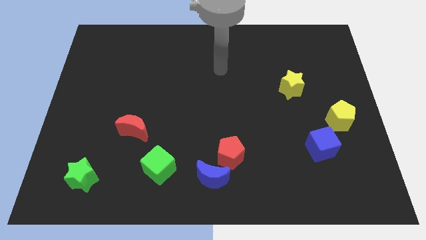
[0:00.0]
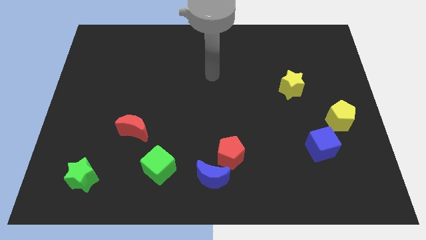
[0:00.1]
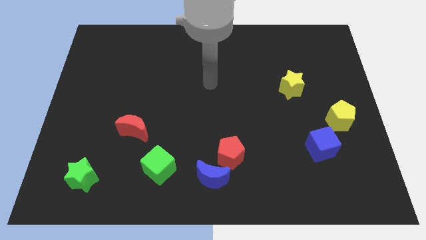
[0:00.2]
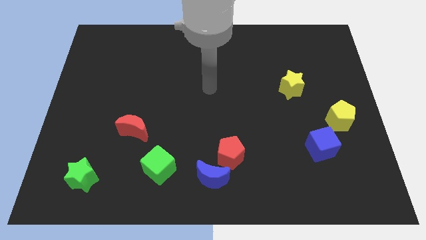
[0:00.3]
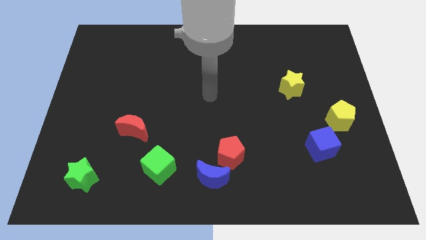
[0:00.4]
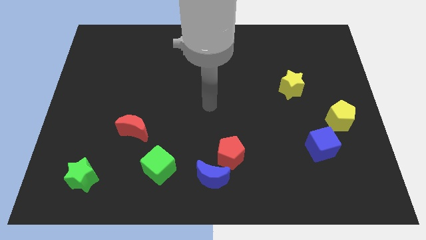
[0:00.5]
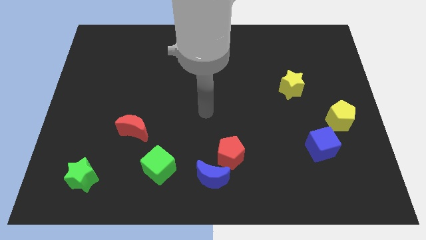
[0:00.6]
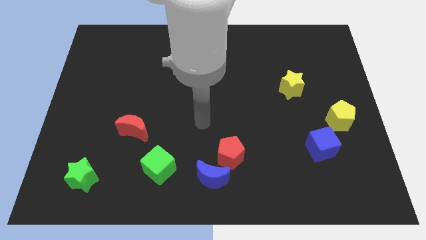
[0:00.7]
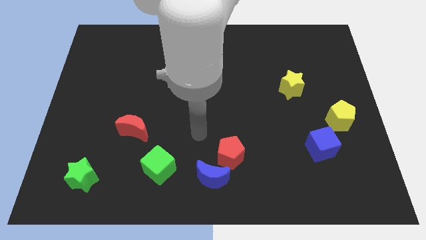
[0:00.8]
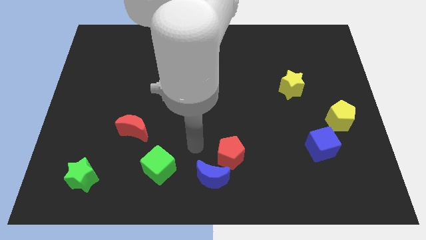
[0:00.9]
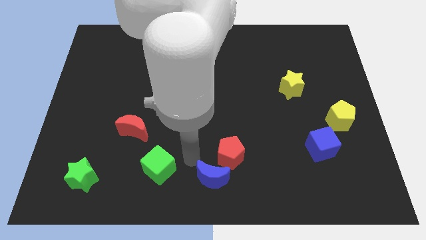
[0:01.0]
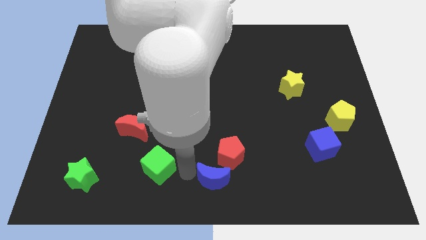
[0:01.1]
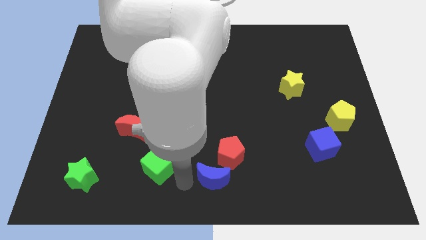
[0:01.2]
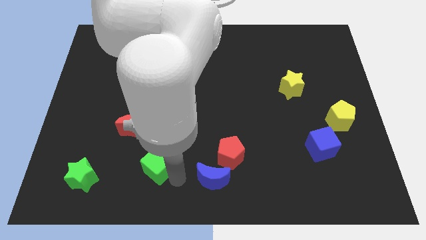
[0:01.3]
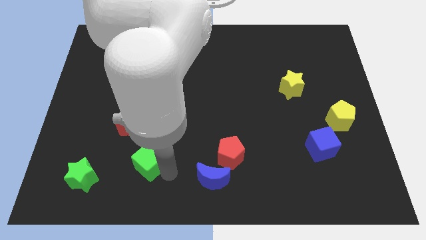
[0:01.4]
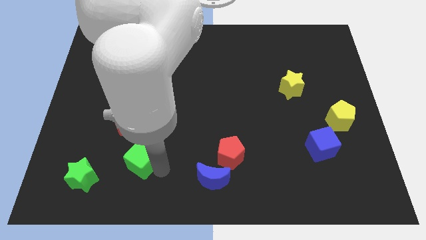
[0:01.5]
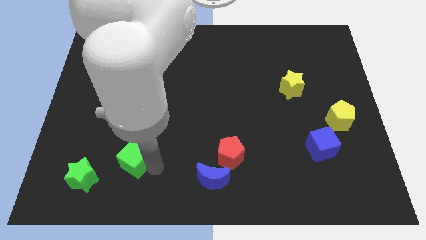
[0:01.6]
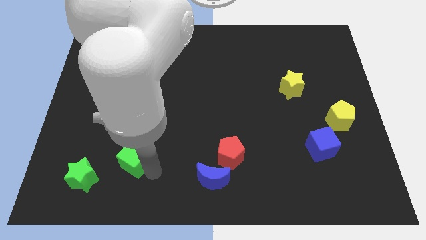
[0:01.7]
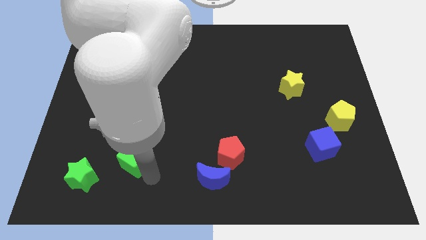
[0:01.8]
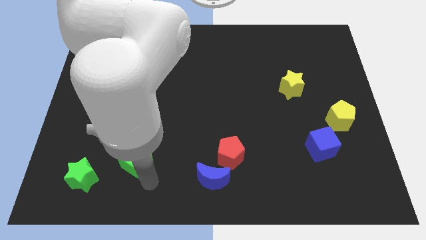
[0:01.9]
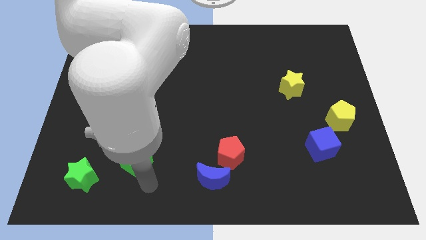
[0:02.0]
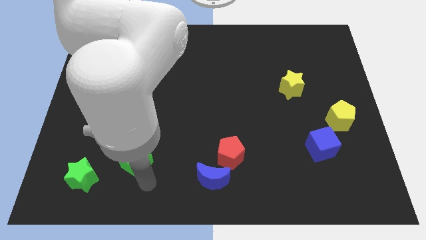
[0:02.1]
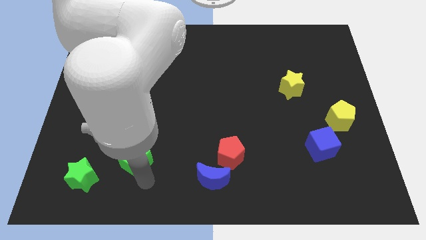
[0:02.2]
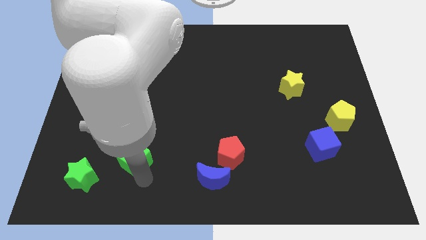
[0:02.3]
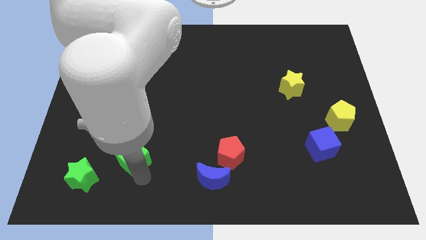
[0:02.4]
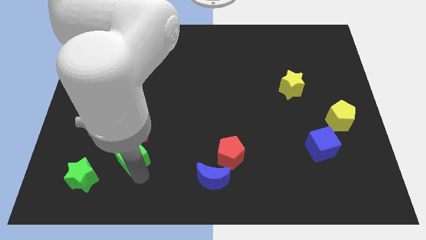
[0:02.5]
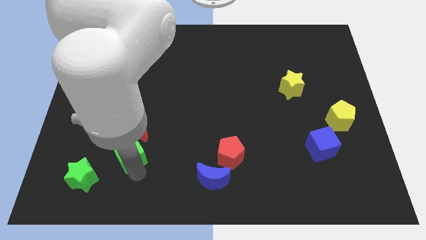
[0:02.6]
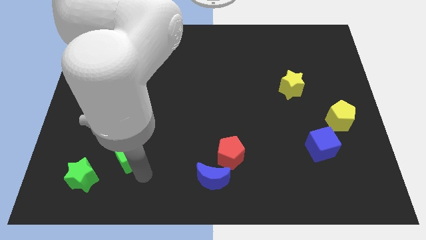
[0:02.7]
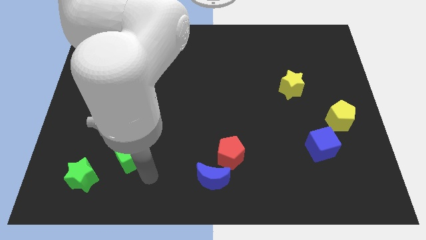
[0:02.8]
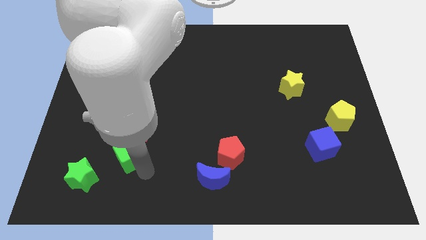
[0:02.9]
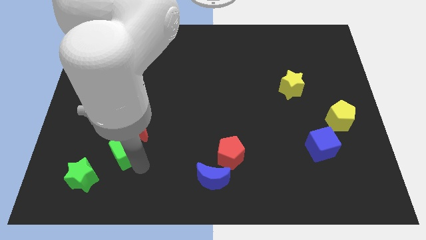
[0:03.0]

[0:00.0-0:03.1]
move the green cube up and left slightly

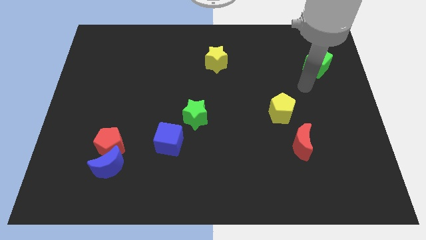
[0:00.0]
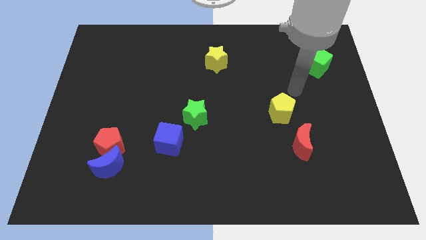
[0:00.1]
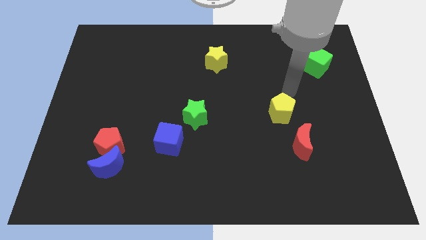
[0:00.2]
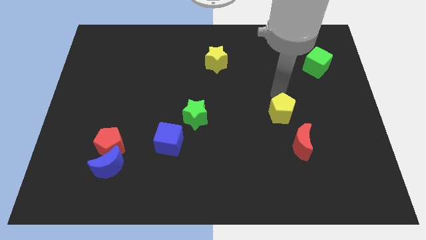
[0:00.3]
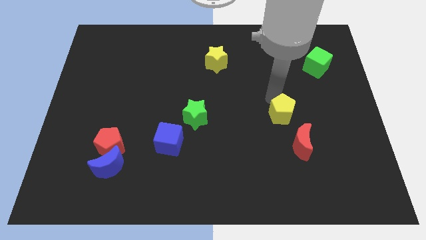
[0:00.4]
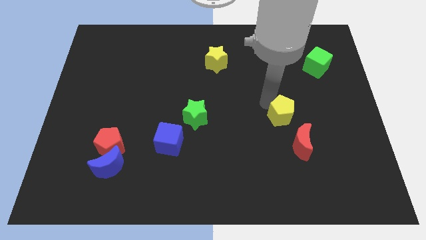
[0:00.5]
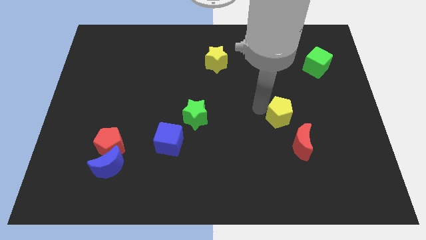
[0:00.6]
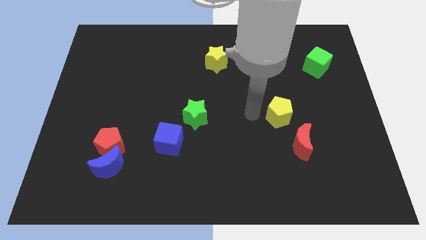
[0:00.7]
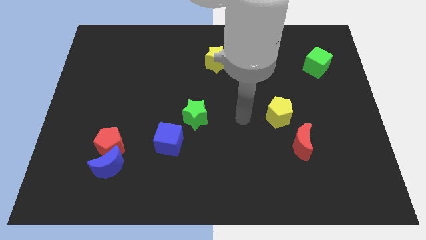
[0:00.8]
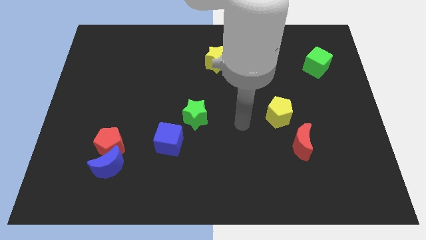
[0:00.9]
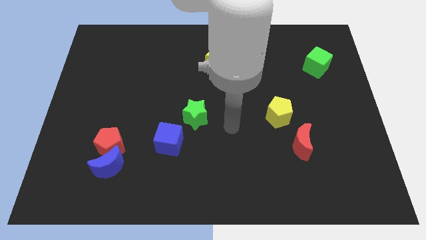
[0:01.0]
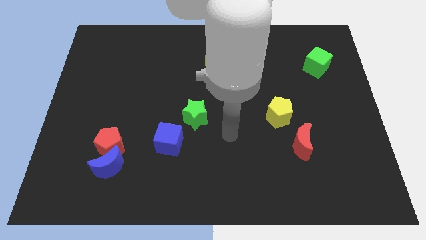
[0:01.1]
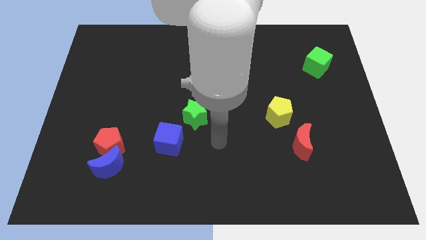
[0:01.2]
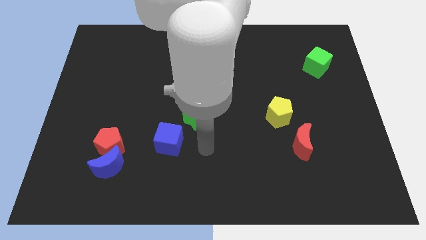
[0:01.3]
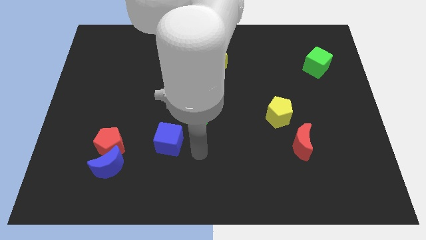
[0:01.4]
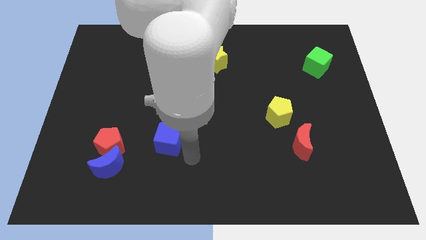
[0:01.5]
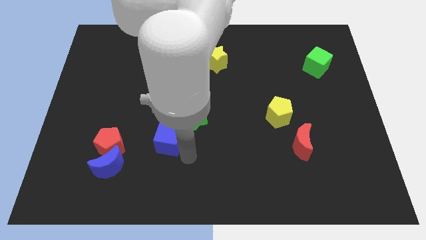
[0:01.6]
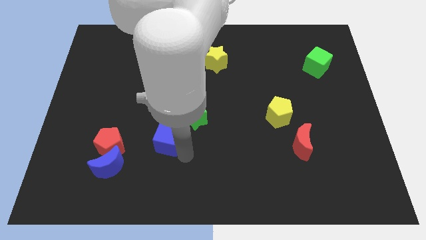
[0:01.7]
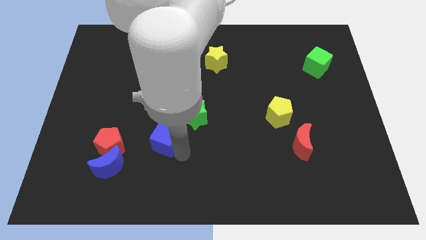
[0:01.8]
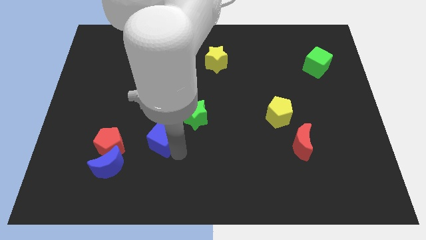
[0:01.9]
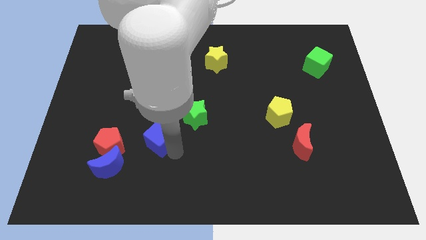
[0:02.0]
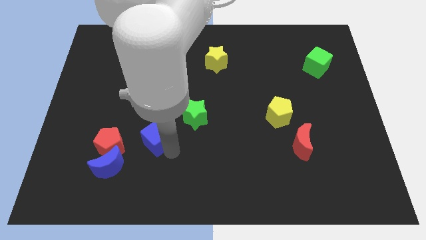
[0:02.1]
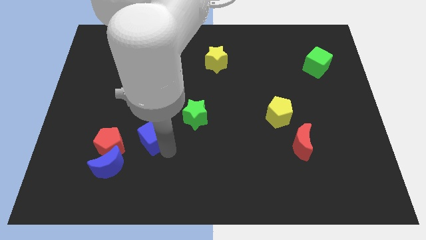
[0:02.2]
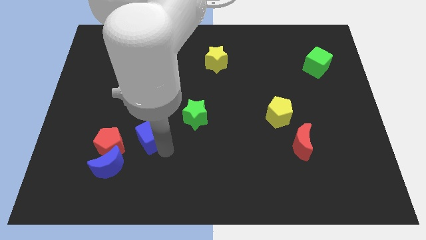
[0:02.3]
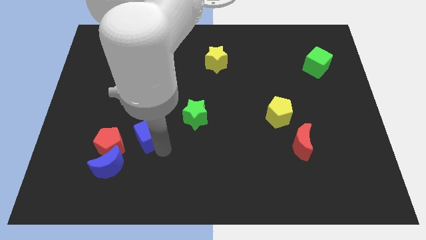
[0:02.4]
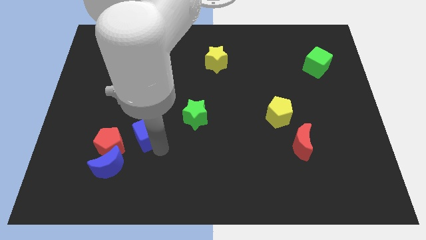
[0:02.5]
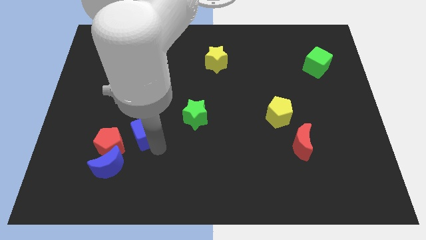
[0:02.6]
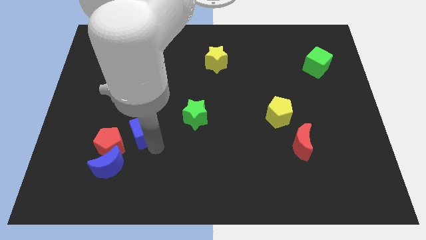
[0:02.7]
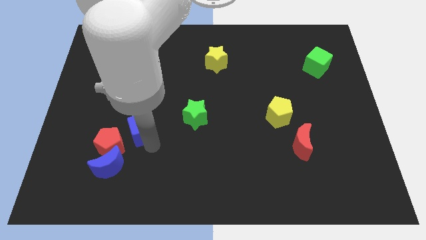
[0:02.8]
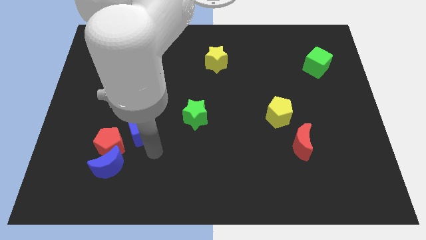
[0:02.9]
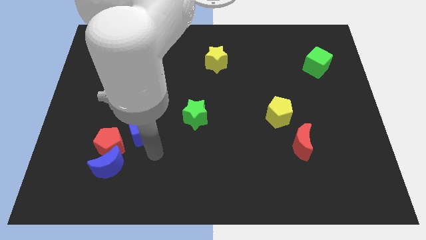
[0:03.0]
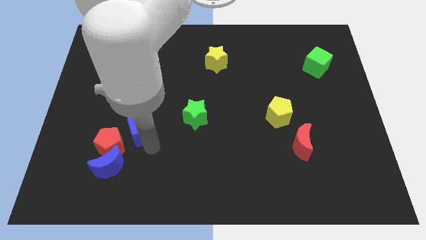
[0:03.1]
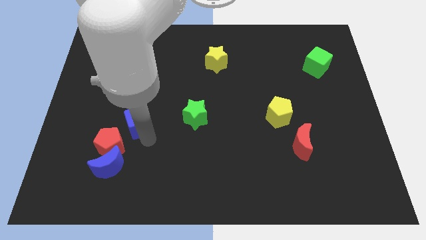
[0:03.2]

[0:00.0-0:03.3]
push the blue cube a bit up and to the left diagonally

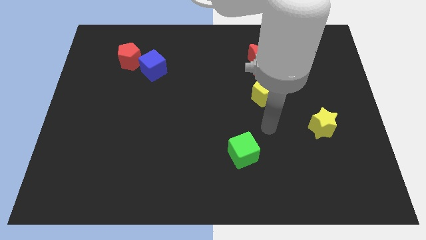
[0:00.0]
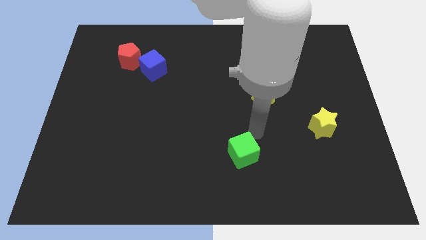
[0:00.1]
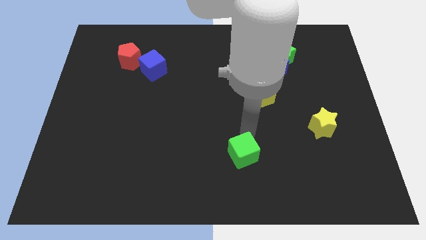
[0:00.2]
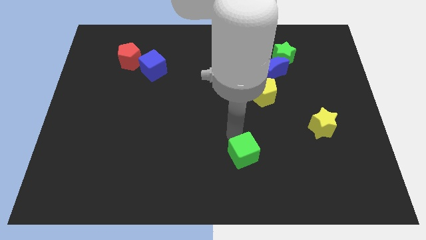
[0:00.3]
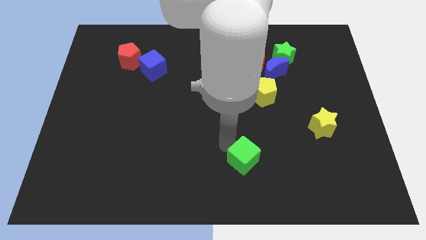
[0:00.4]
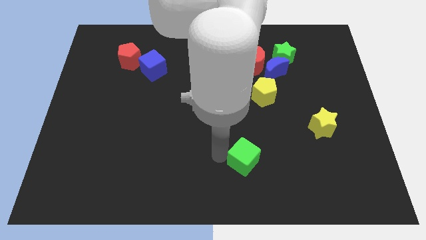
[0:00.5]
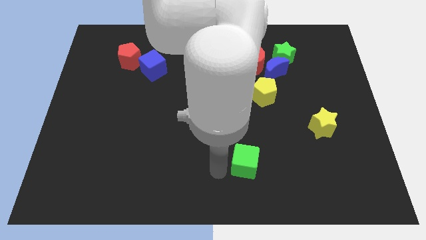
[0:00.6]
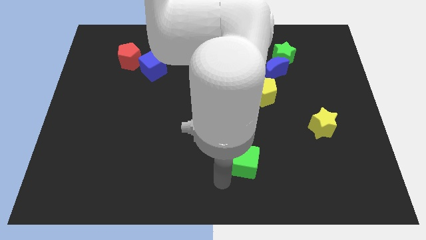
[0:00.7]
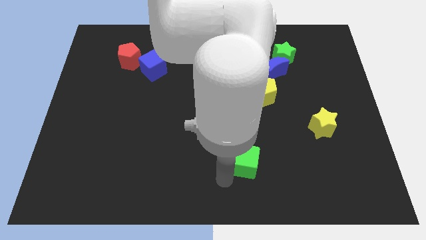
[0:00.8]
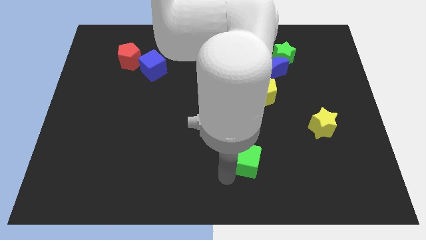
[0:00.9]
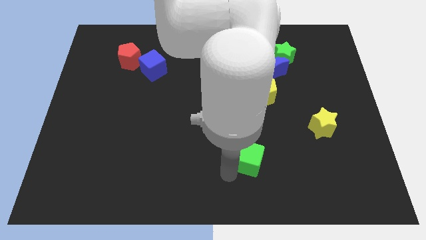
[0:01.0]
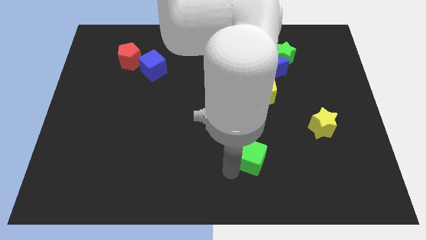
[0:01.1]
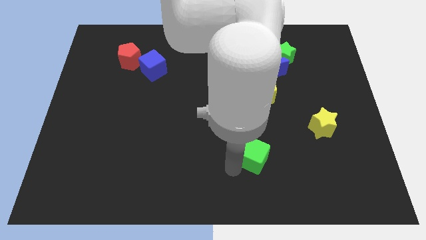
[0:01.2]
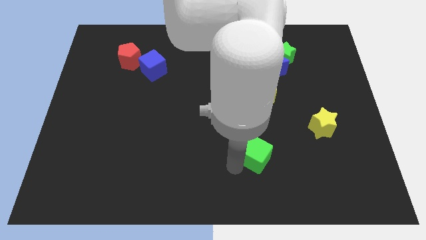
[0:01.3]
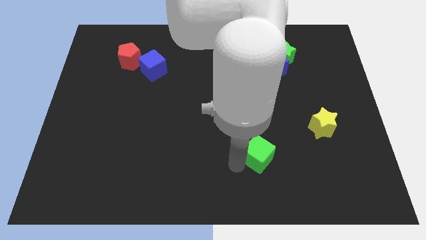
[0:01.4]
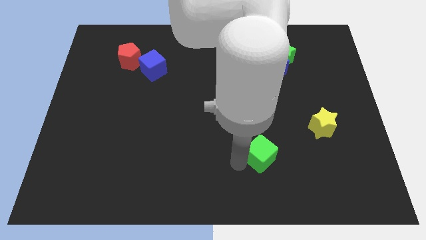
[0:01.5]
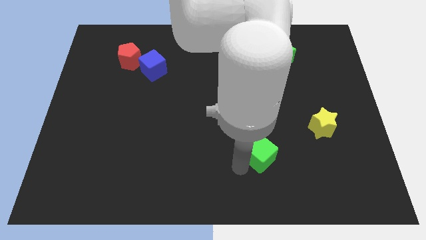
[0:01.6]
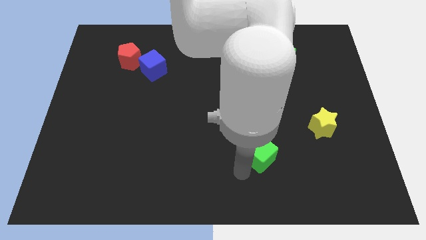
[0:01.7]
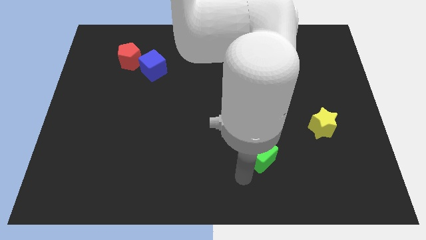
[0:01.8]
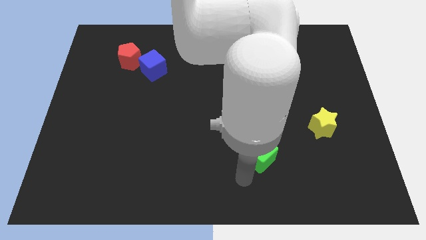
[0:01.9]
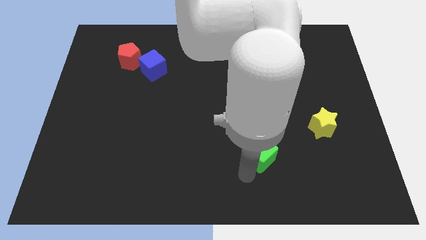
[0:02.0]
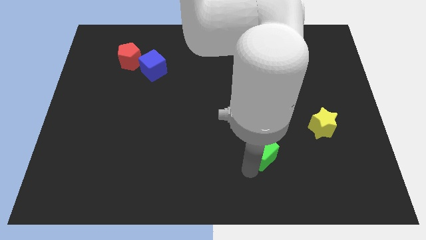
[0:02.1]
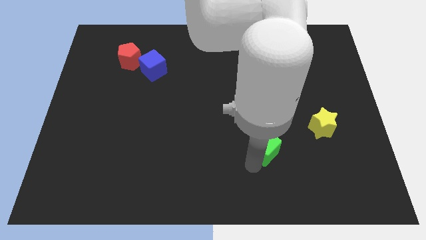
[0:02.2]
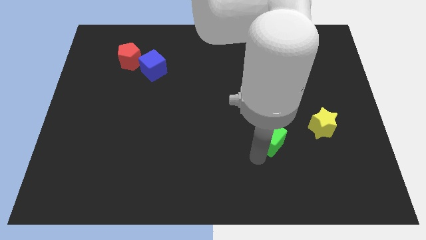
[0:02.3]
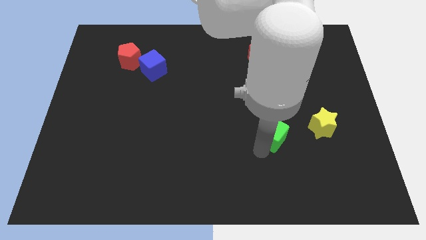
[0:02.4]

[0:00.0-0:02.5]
slightly push the green cube up and right diagonally
